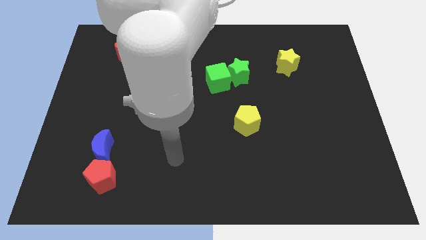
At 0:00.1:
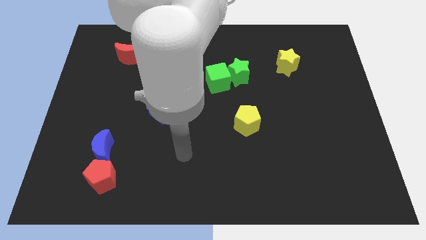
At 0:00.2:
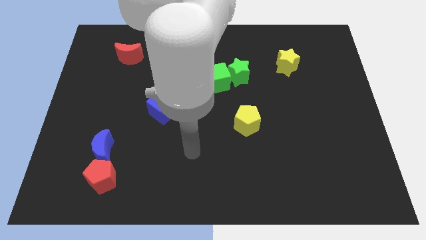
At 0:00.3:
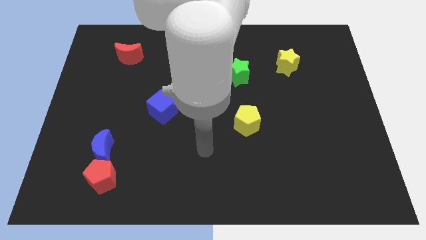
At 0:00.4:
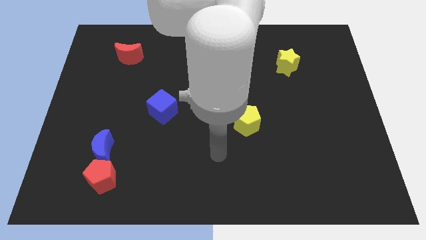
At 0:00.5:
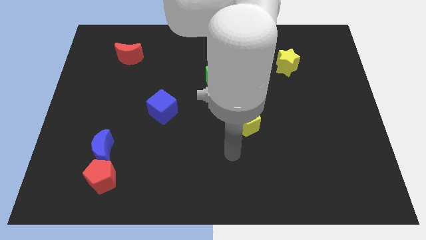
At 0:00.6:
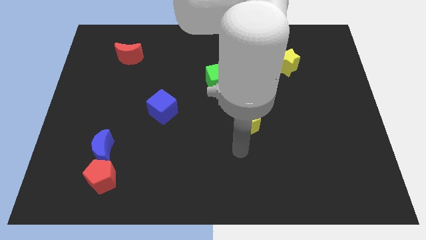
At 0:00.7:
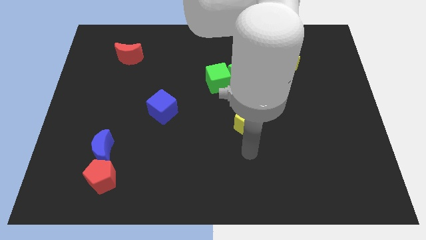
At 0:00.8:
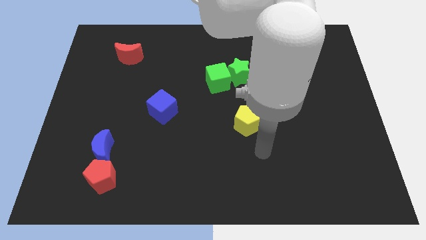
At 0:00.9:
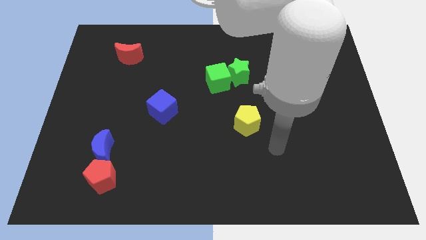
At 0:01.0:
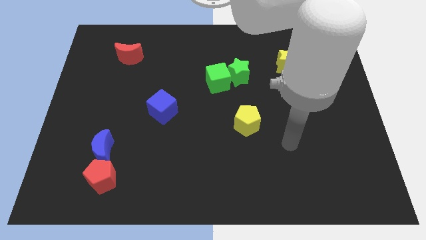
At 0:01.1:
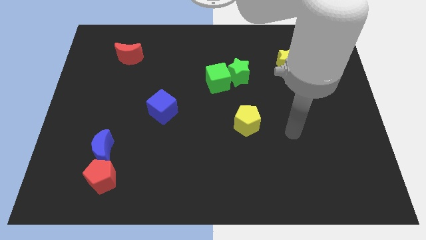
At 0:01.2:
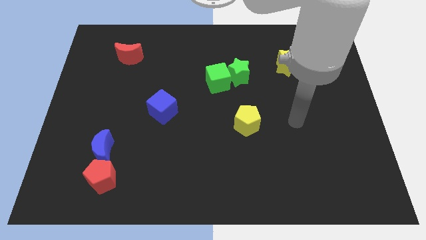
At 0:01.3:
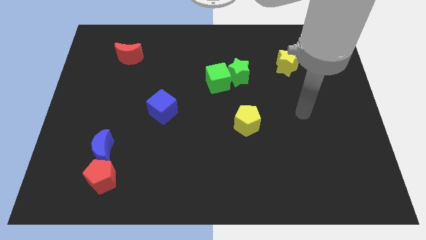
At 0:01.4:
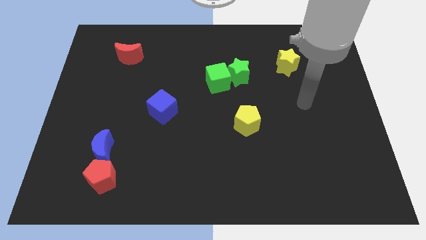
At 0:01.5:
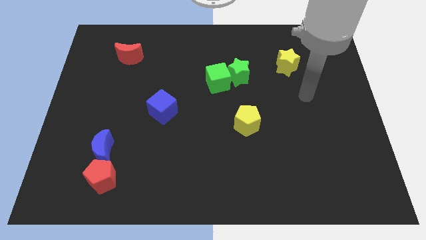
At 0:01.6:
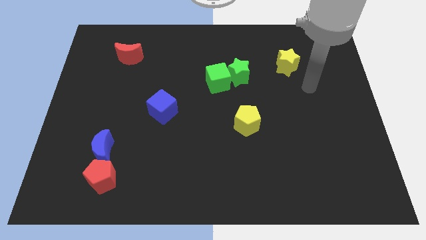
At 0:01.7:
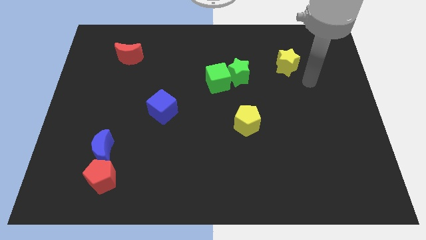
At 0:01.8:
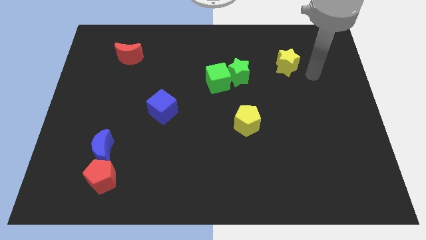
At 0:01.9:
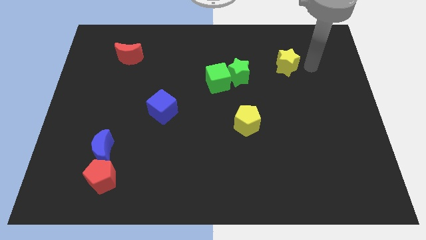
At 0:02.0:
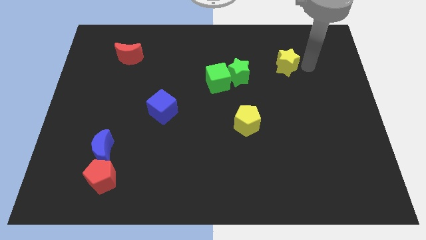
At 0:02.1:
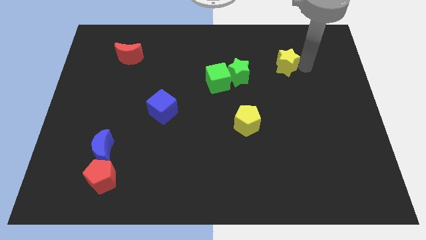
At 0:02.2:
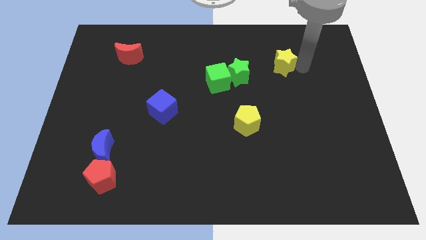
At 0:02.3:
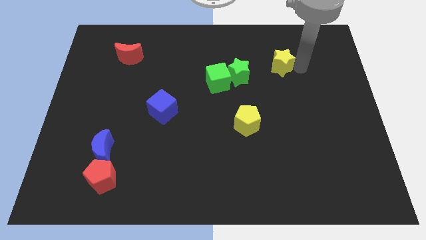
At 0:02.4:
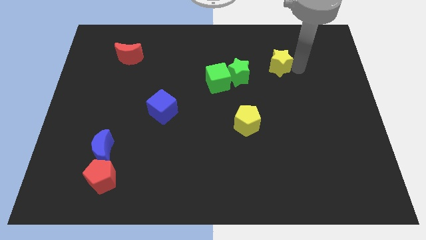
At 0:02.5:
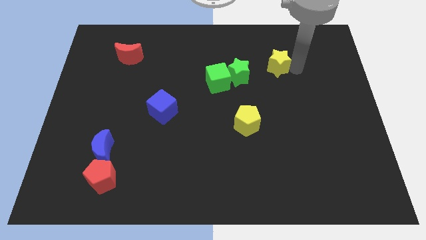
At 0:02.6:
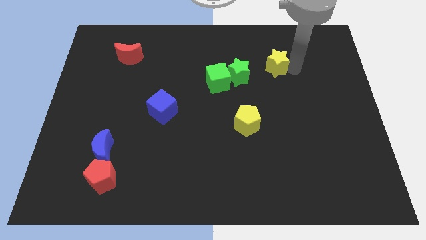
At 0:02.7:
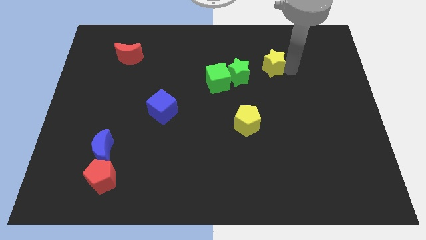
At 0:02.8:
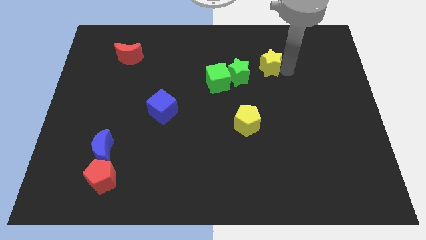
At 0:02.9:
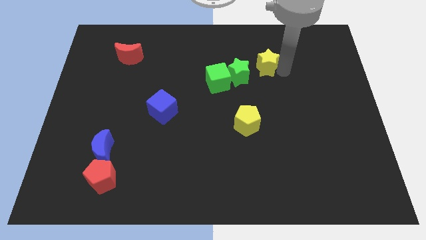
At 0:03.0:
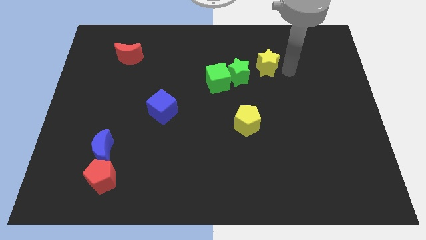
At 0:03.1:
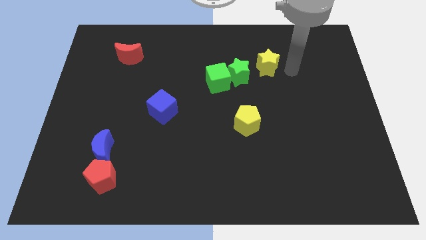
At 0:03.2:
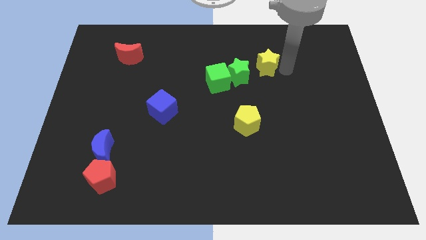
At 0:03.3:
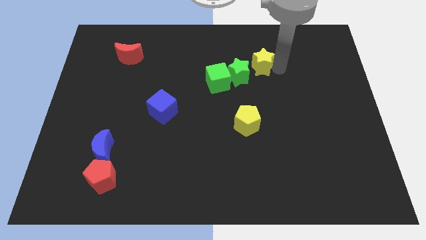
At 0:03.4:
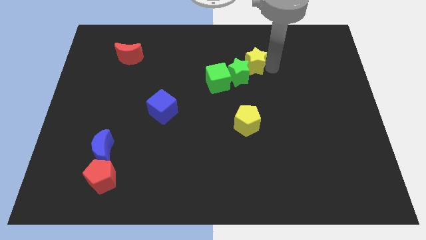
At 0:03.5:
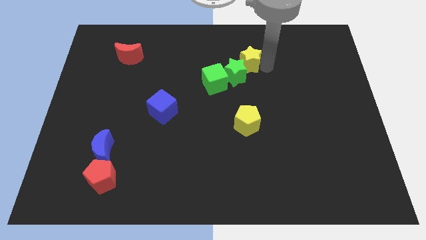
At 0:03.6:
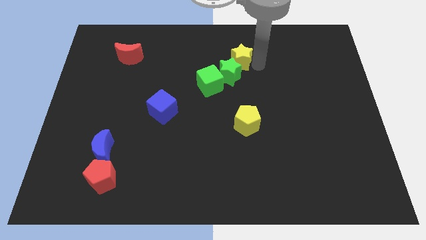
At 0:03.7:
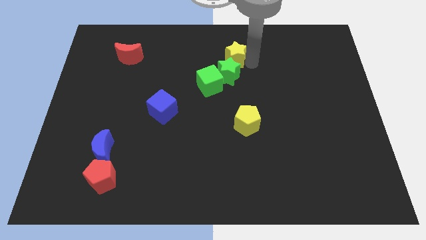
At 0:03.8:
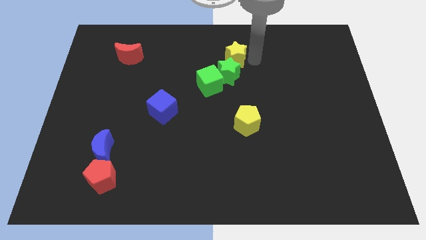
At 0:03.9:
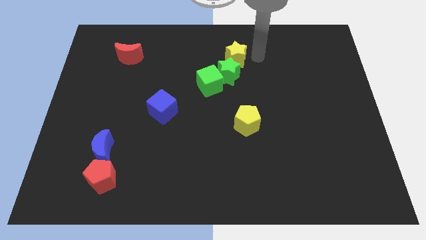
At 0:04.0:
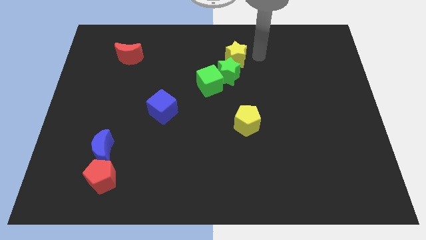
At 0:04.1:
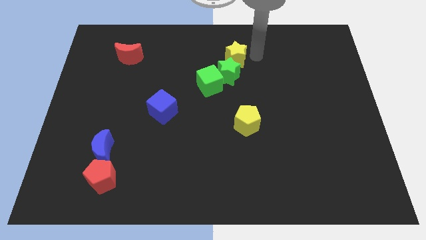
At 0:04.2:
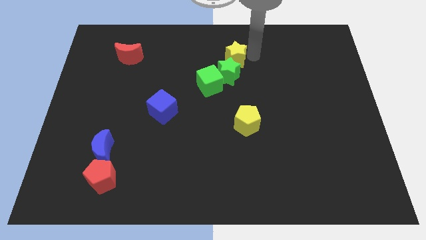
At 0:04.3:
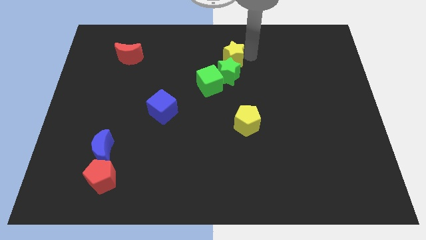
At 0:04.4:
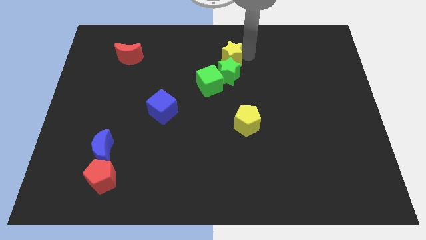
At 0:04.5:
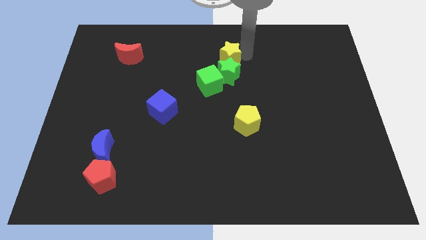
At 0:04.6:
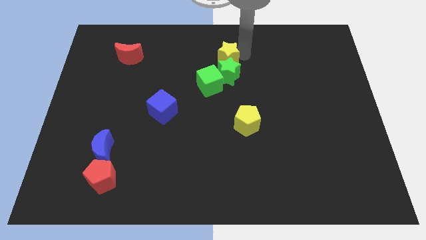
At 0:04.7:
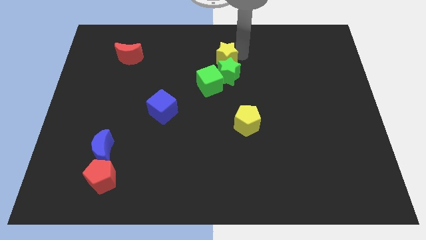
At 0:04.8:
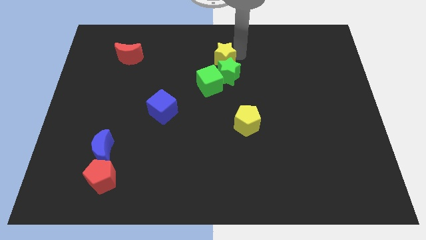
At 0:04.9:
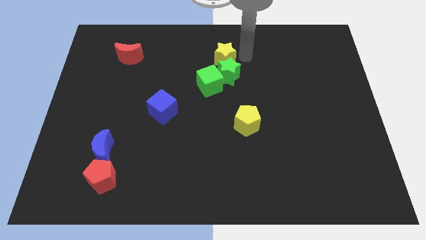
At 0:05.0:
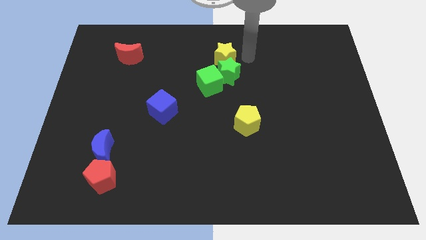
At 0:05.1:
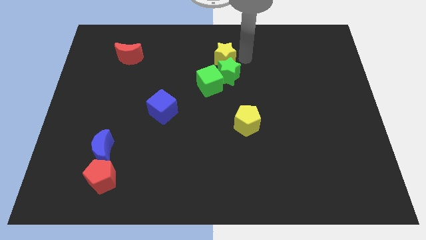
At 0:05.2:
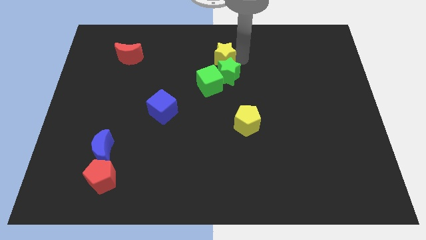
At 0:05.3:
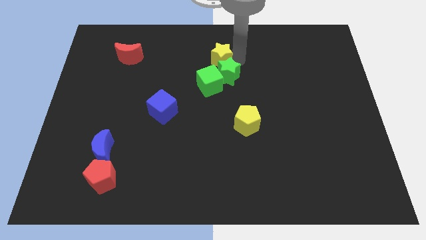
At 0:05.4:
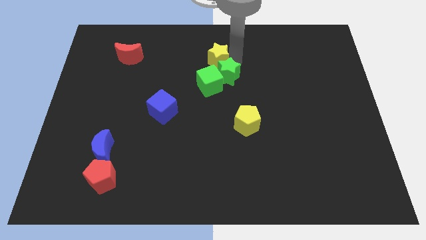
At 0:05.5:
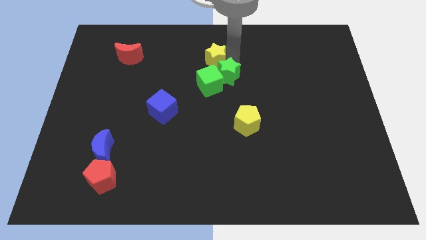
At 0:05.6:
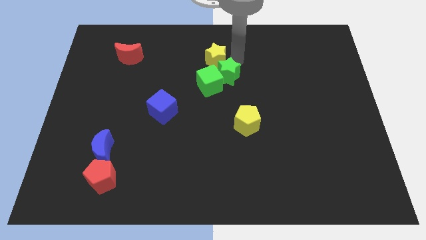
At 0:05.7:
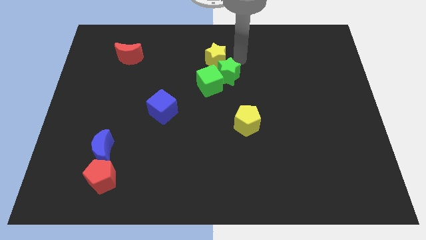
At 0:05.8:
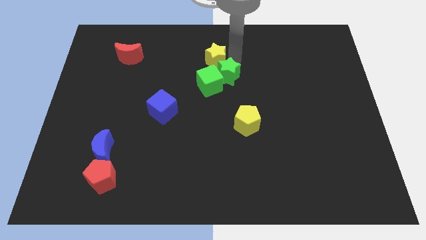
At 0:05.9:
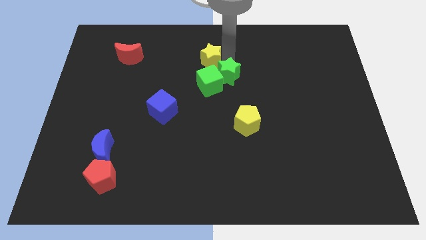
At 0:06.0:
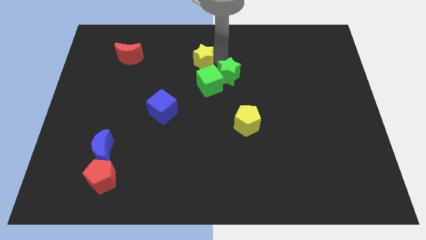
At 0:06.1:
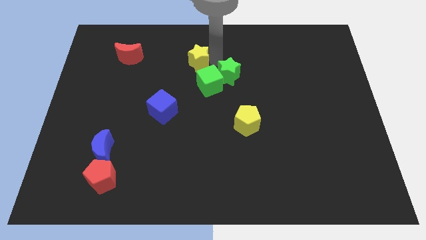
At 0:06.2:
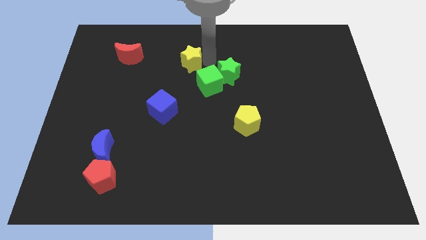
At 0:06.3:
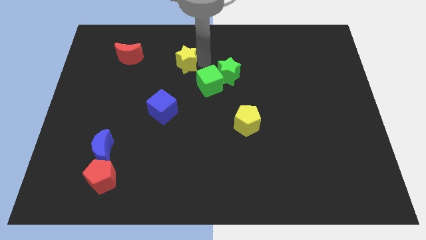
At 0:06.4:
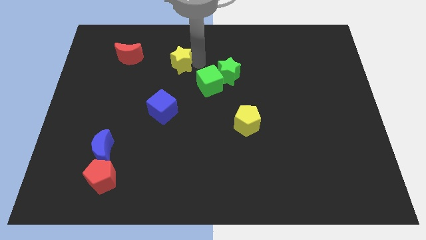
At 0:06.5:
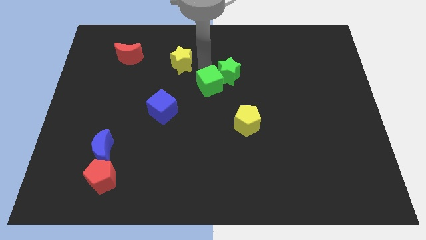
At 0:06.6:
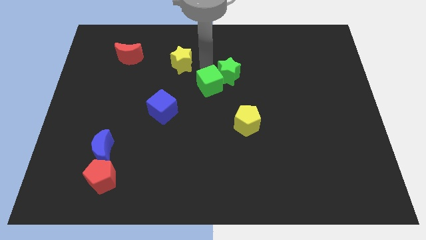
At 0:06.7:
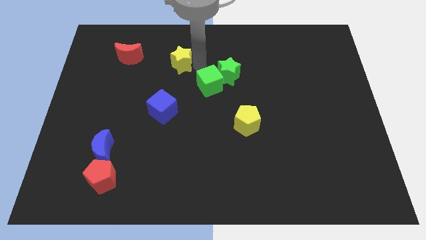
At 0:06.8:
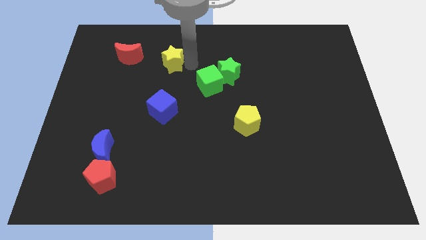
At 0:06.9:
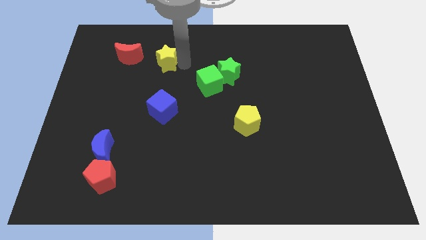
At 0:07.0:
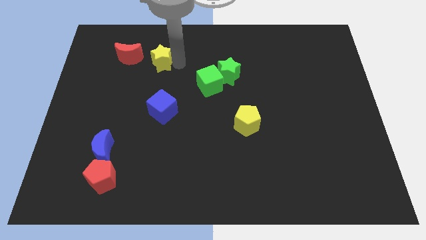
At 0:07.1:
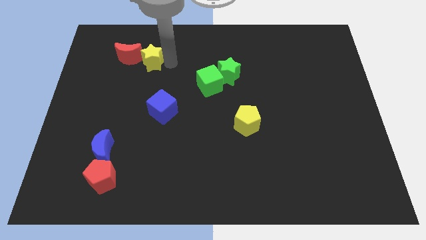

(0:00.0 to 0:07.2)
move the yellow star to the red moon
